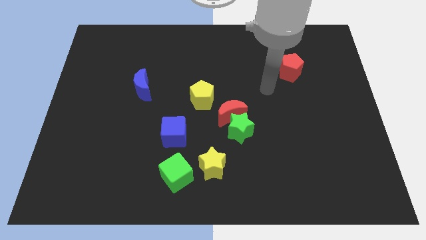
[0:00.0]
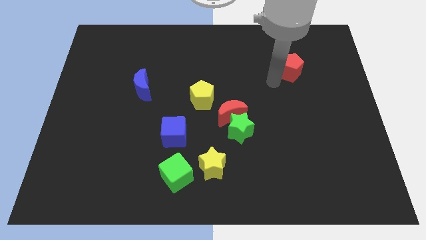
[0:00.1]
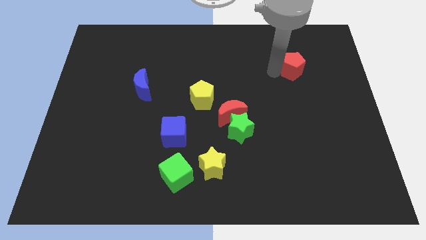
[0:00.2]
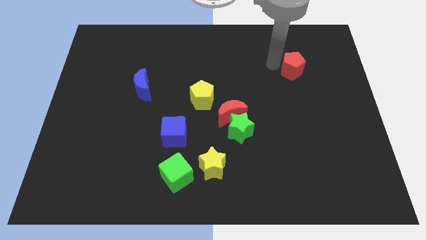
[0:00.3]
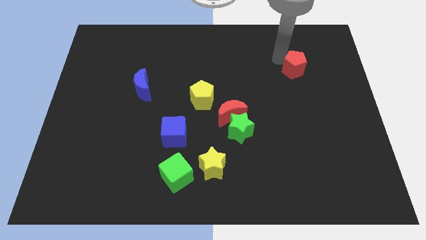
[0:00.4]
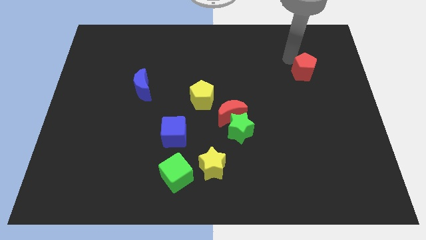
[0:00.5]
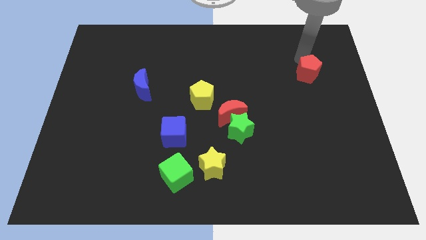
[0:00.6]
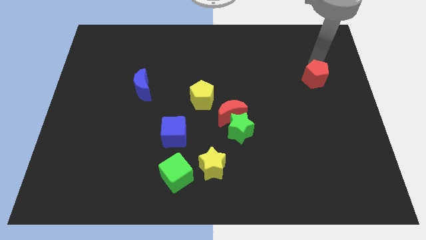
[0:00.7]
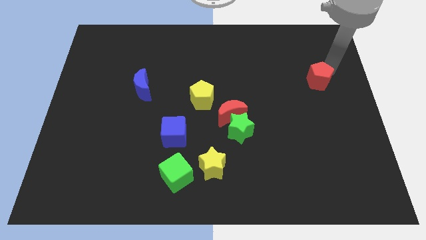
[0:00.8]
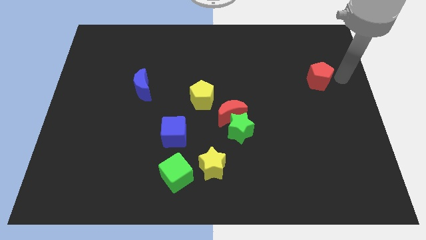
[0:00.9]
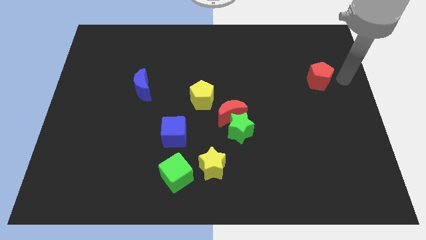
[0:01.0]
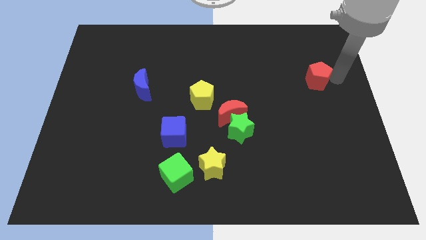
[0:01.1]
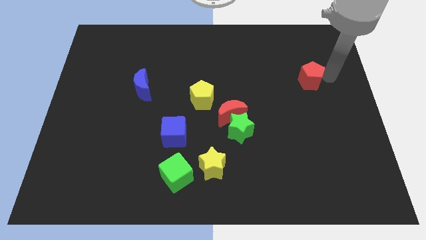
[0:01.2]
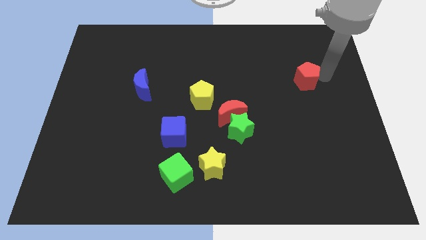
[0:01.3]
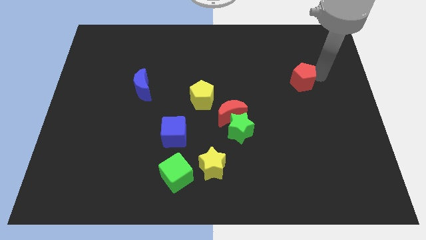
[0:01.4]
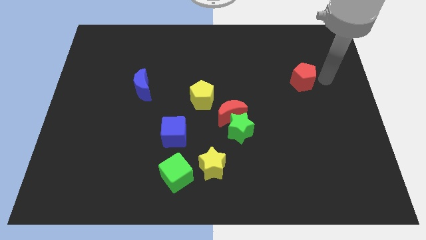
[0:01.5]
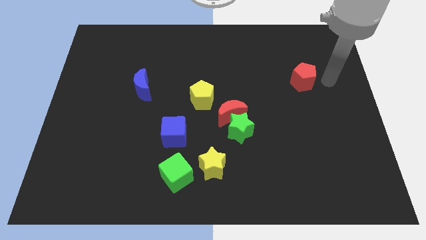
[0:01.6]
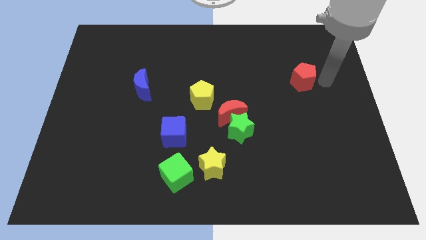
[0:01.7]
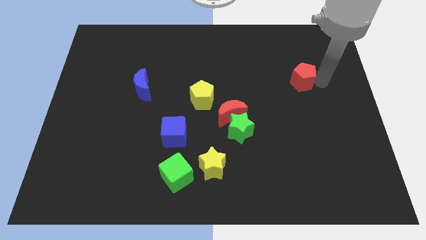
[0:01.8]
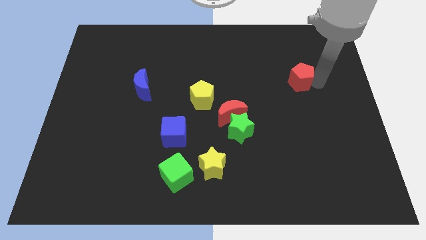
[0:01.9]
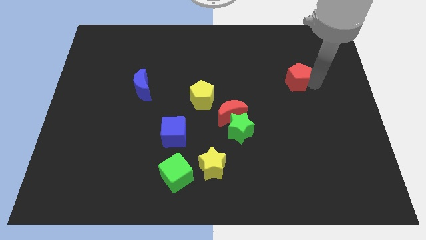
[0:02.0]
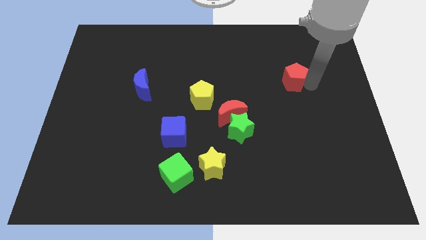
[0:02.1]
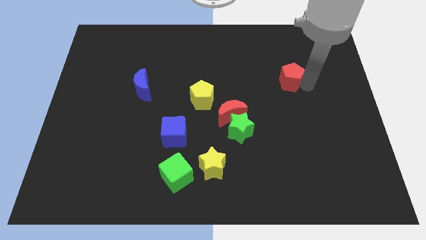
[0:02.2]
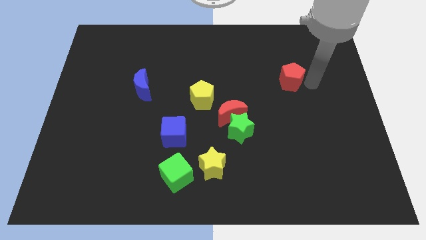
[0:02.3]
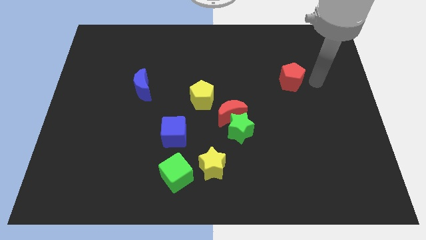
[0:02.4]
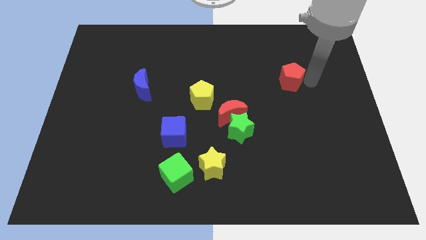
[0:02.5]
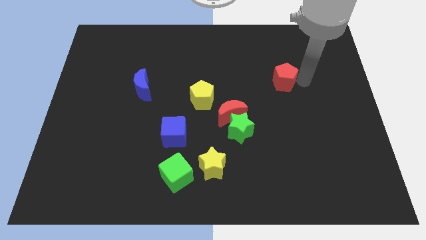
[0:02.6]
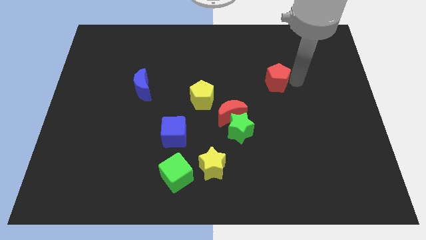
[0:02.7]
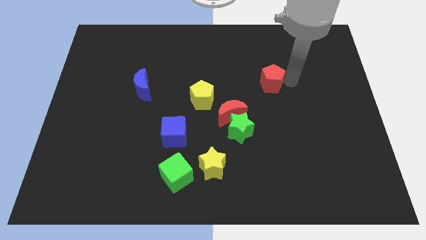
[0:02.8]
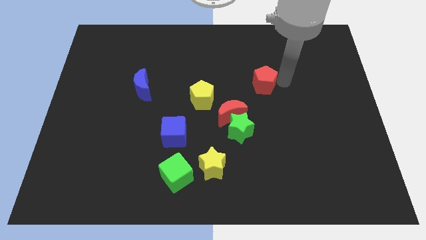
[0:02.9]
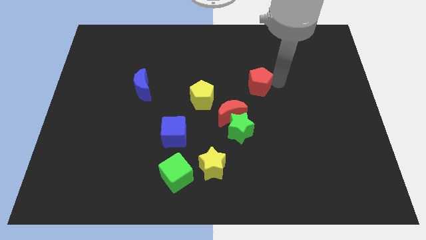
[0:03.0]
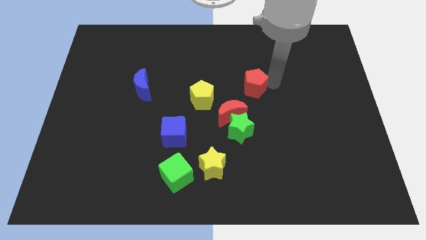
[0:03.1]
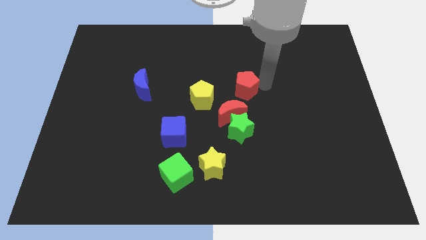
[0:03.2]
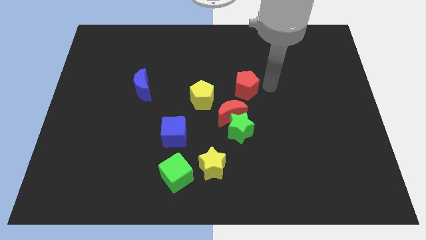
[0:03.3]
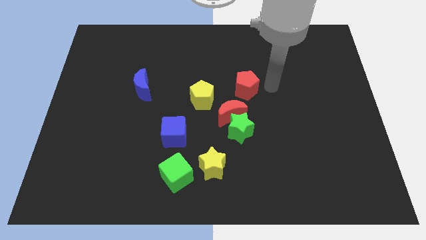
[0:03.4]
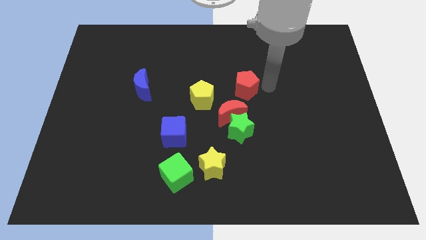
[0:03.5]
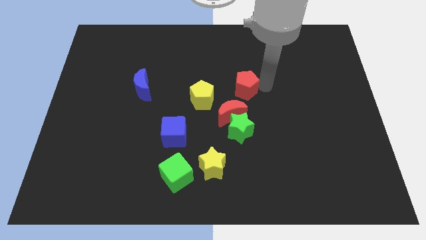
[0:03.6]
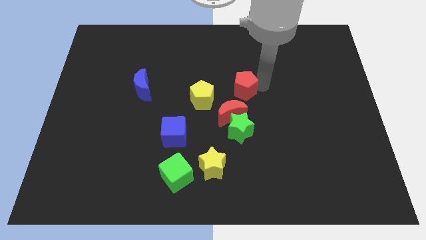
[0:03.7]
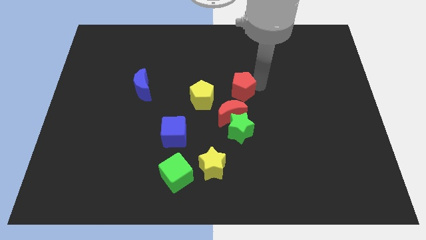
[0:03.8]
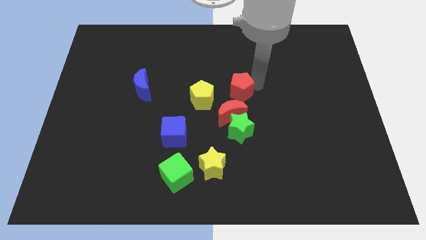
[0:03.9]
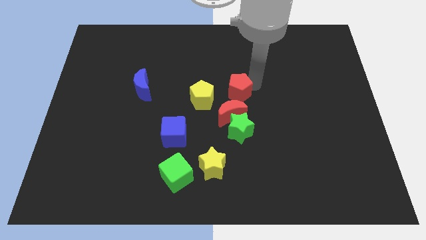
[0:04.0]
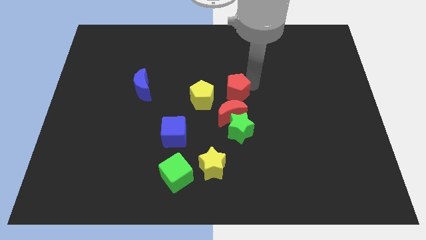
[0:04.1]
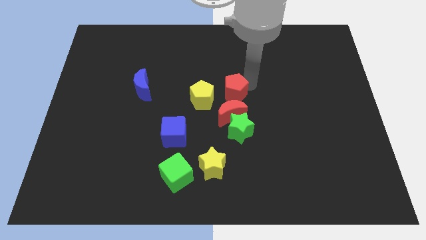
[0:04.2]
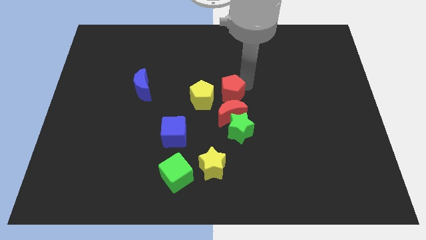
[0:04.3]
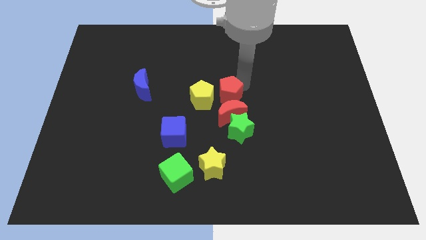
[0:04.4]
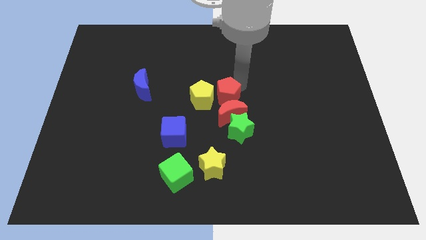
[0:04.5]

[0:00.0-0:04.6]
put the red pentagon to the yellow pentagon

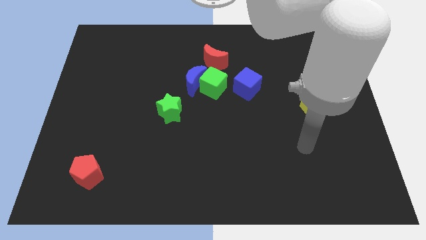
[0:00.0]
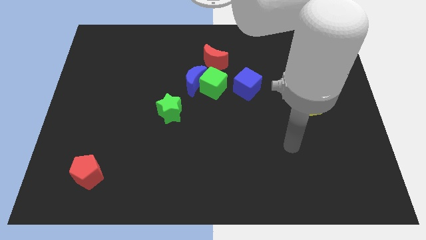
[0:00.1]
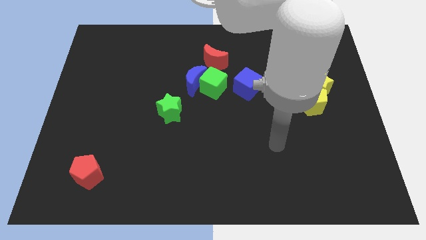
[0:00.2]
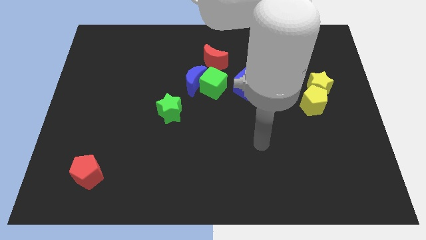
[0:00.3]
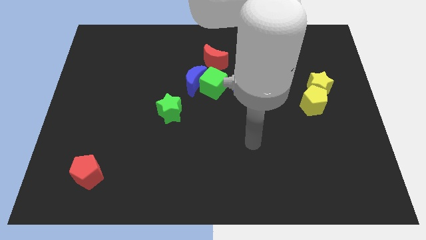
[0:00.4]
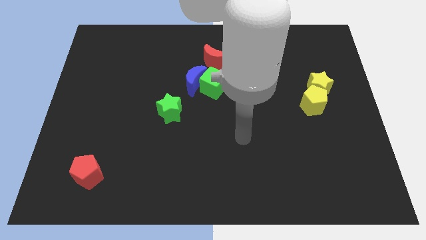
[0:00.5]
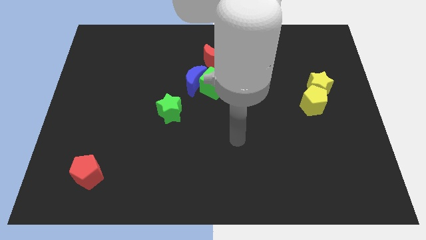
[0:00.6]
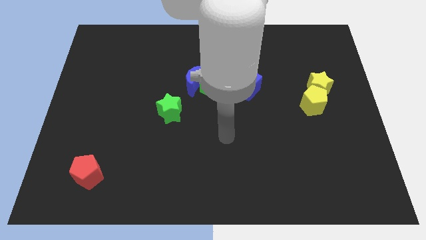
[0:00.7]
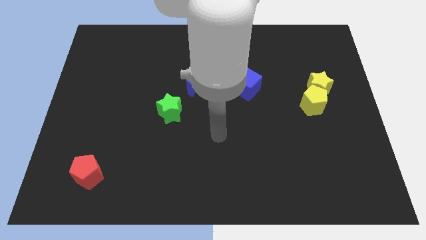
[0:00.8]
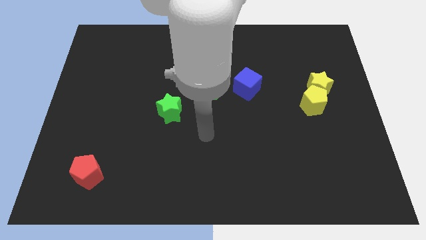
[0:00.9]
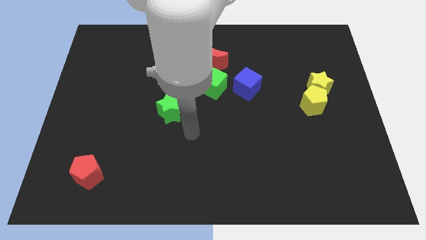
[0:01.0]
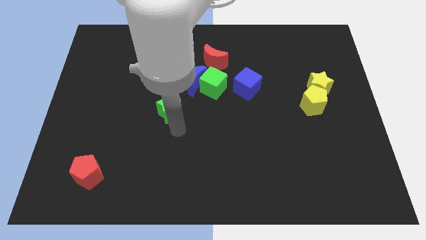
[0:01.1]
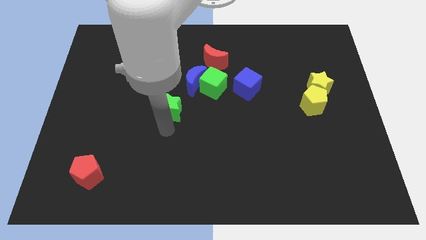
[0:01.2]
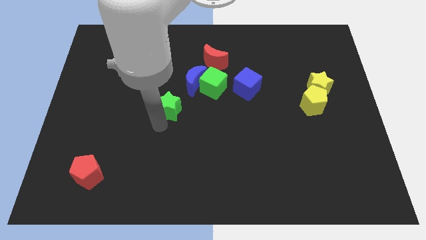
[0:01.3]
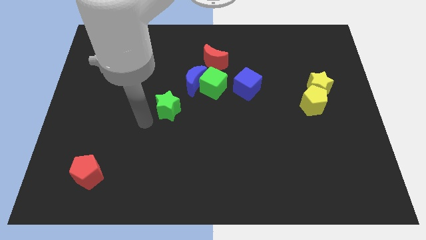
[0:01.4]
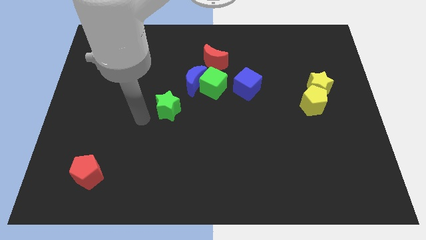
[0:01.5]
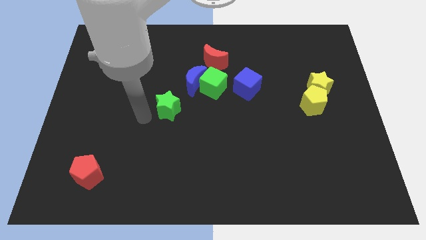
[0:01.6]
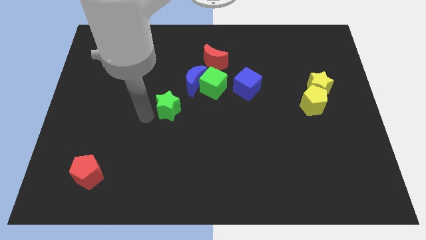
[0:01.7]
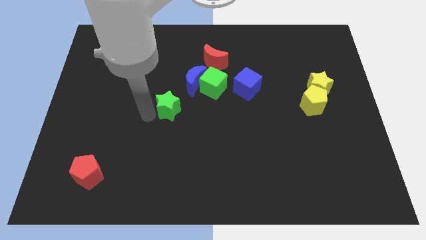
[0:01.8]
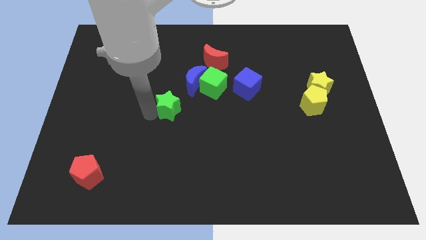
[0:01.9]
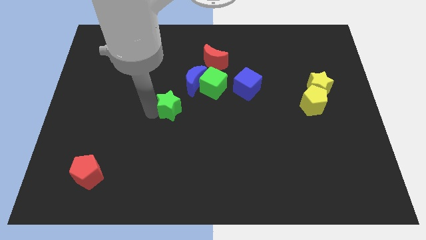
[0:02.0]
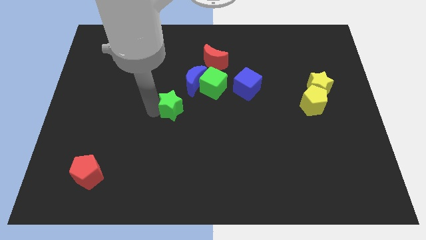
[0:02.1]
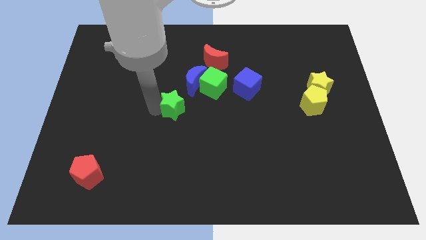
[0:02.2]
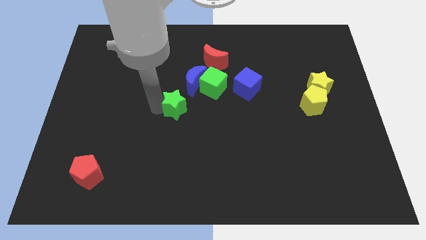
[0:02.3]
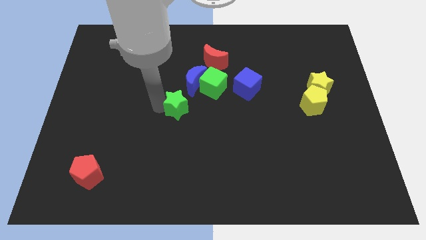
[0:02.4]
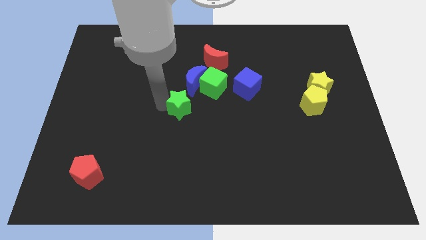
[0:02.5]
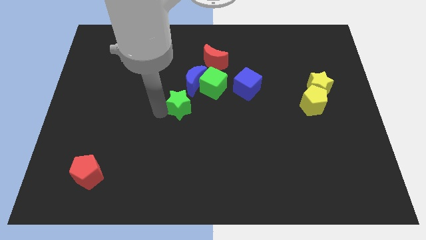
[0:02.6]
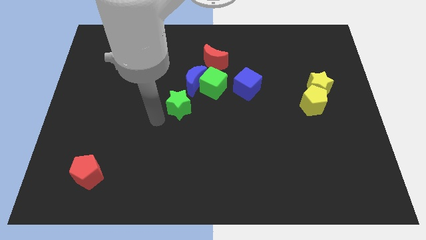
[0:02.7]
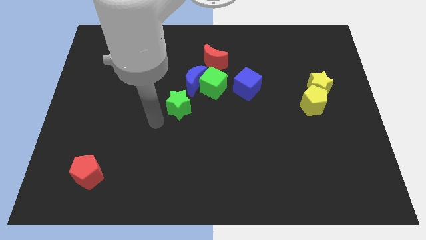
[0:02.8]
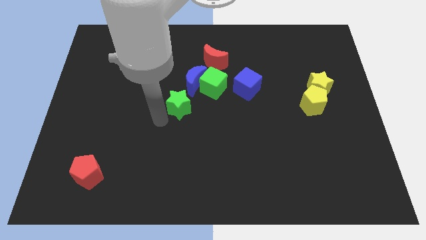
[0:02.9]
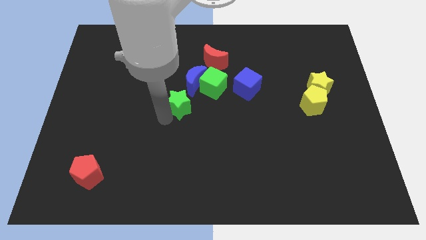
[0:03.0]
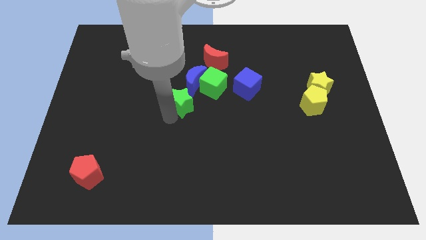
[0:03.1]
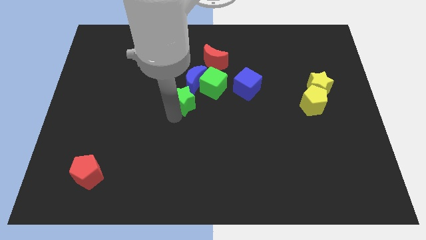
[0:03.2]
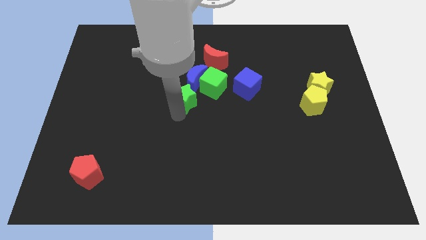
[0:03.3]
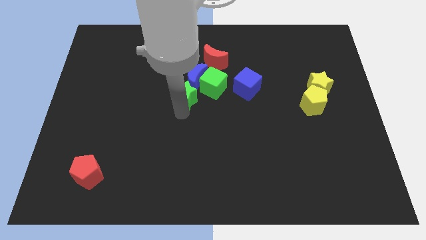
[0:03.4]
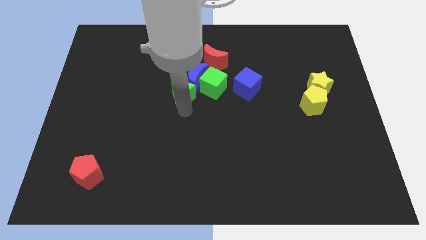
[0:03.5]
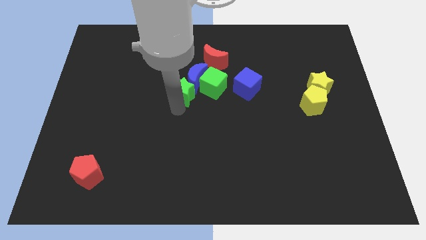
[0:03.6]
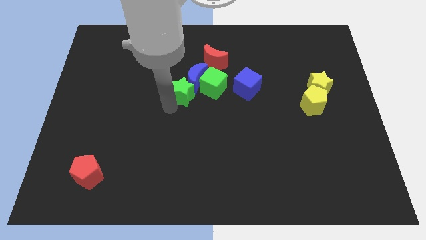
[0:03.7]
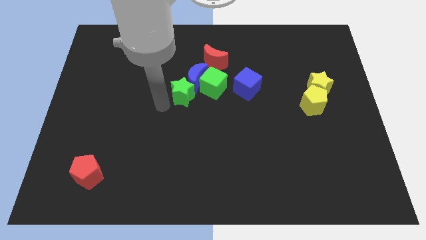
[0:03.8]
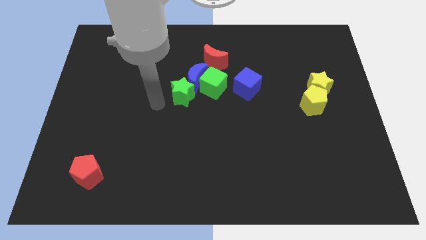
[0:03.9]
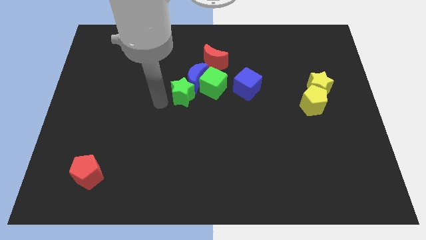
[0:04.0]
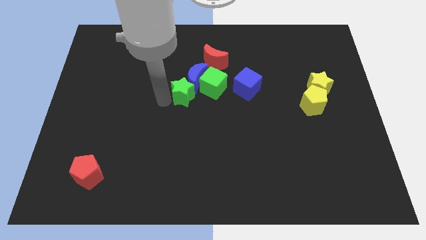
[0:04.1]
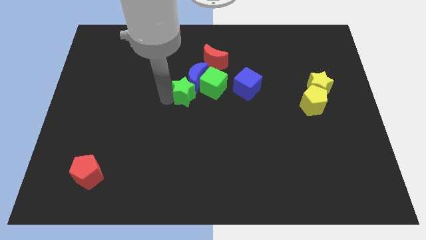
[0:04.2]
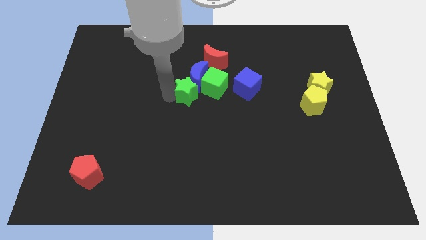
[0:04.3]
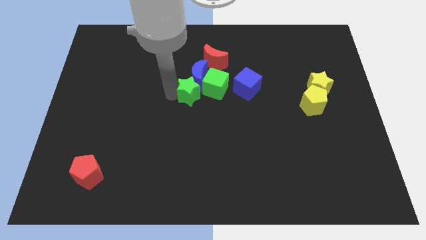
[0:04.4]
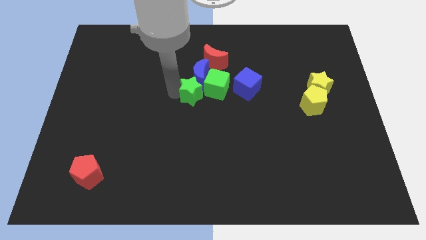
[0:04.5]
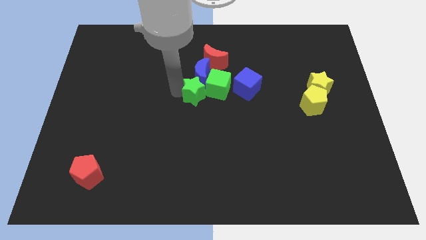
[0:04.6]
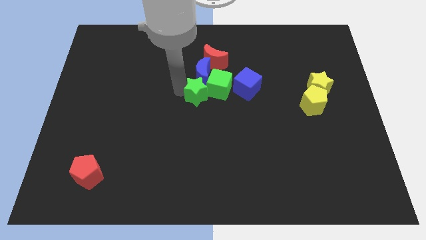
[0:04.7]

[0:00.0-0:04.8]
slide the green star next to the green cube
